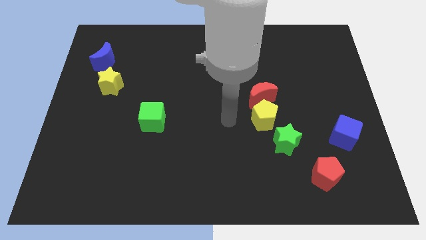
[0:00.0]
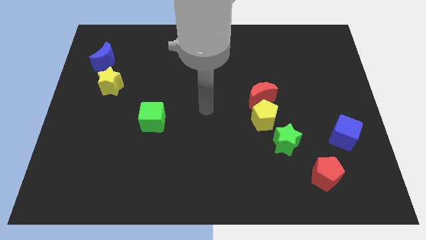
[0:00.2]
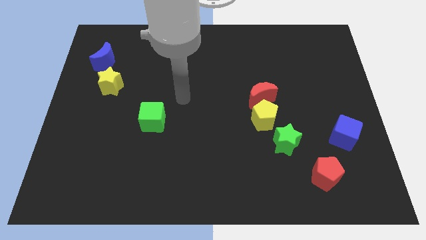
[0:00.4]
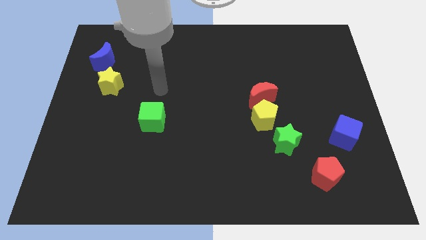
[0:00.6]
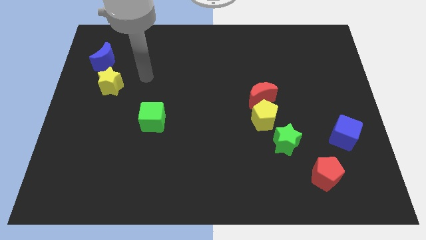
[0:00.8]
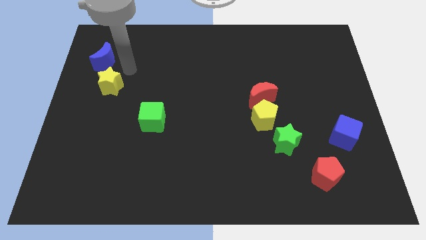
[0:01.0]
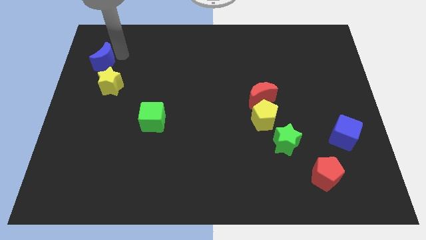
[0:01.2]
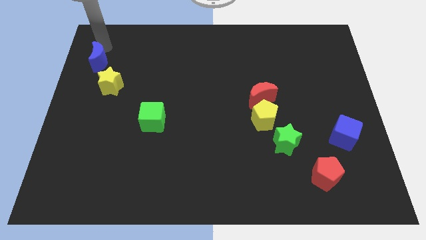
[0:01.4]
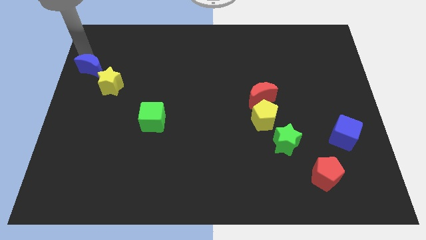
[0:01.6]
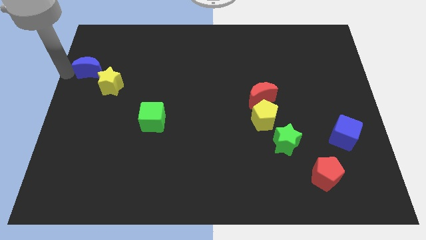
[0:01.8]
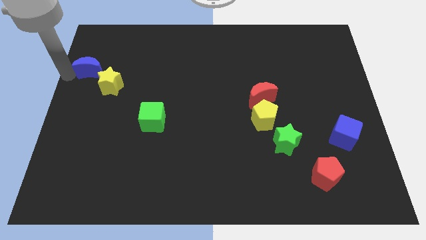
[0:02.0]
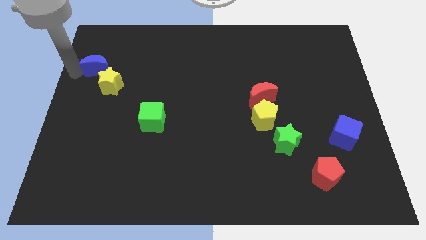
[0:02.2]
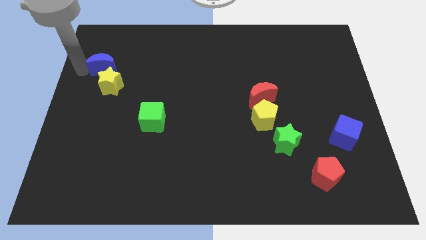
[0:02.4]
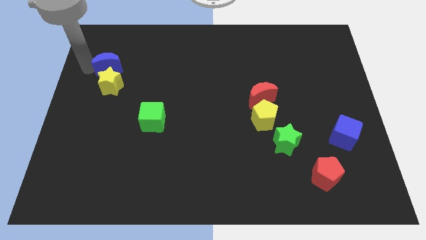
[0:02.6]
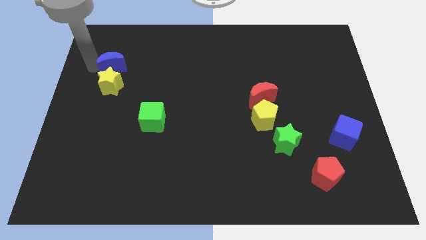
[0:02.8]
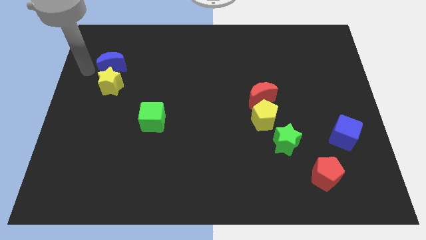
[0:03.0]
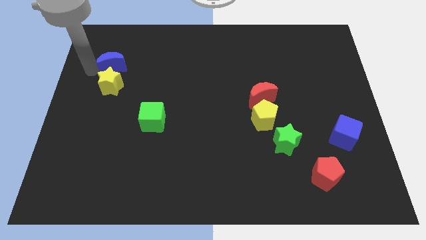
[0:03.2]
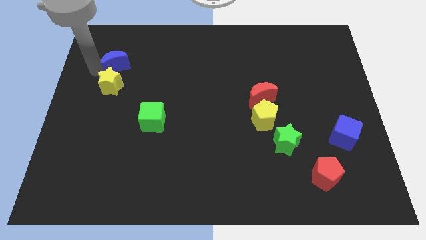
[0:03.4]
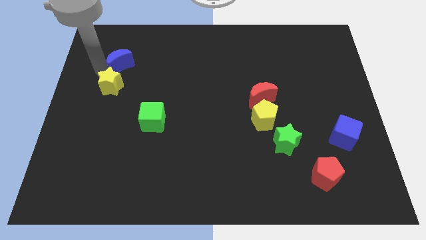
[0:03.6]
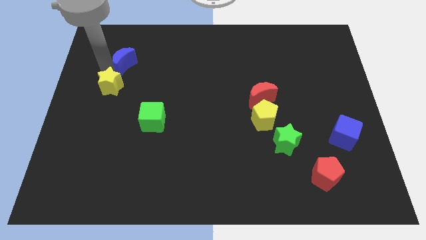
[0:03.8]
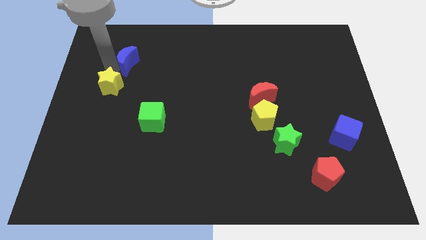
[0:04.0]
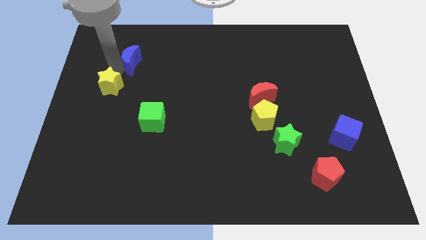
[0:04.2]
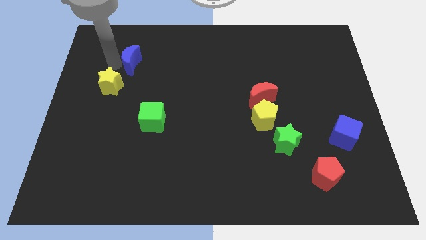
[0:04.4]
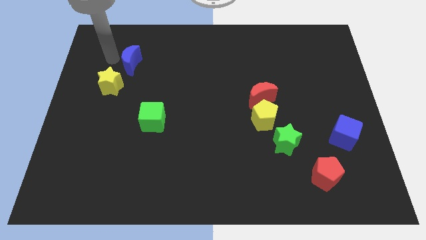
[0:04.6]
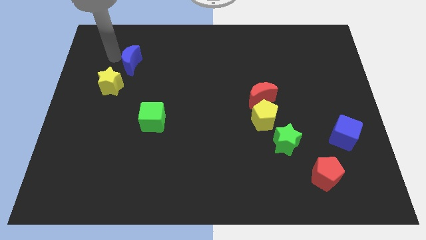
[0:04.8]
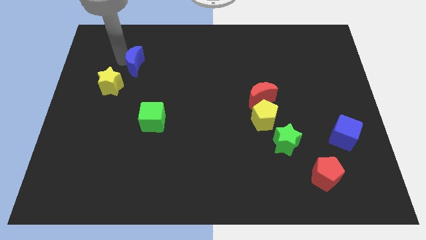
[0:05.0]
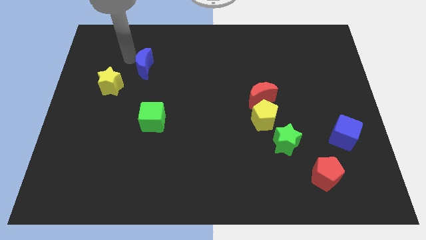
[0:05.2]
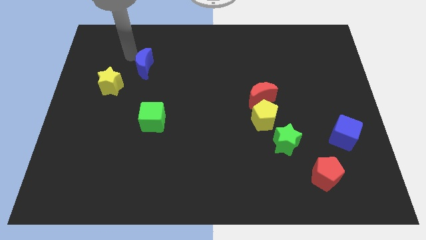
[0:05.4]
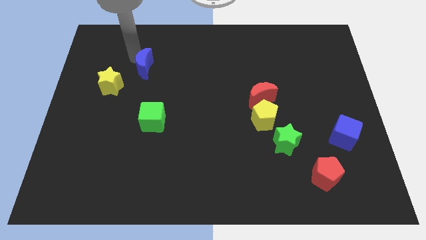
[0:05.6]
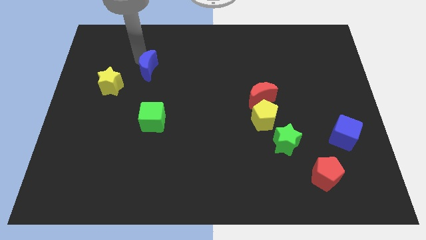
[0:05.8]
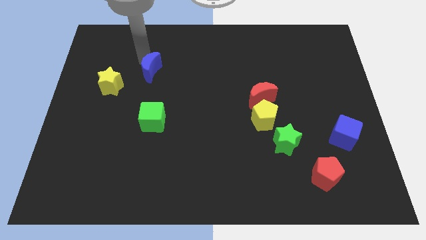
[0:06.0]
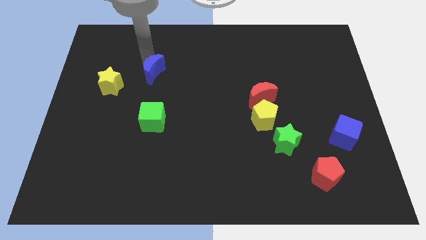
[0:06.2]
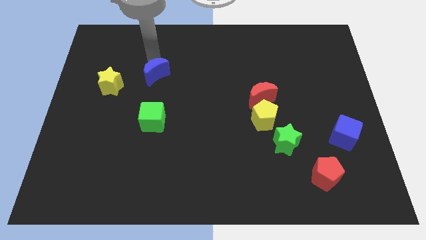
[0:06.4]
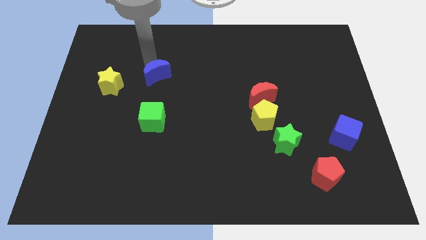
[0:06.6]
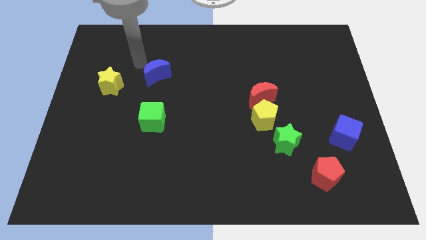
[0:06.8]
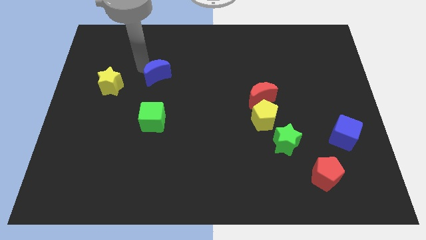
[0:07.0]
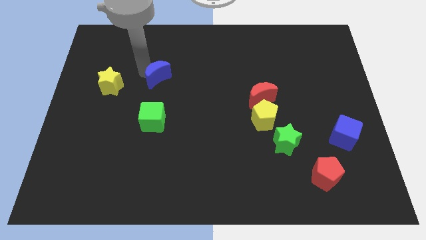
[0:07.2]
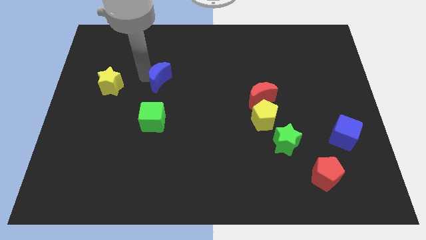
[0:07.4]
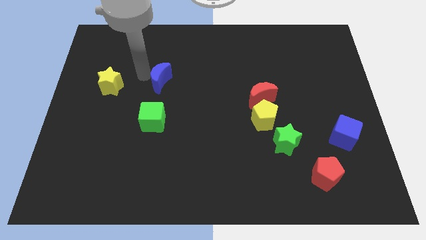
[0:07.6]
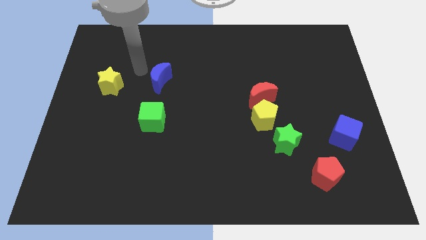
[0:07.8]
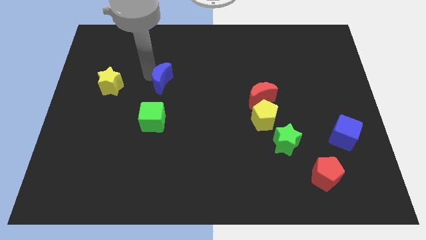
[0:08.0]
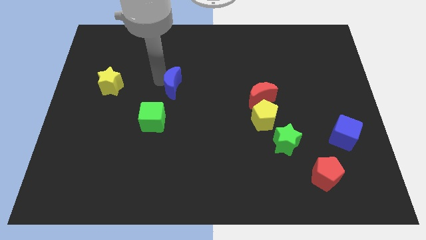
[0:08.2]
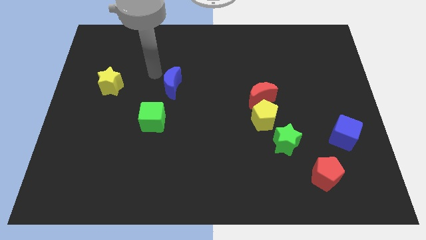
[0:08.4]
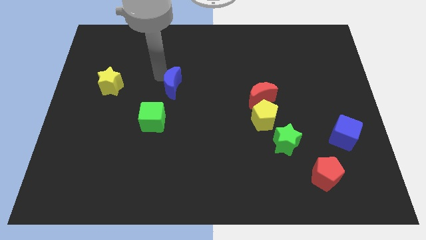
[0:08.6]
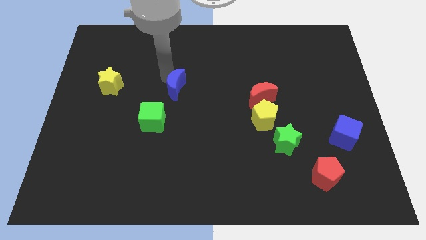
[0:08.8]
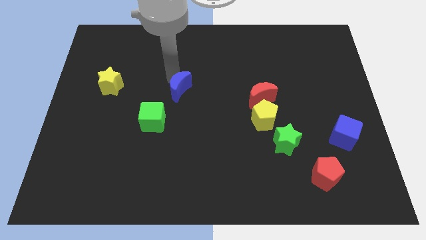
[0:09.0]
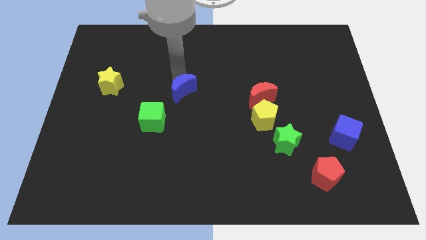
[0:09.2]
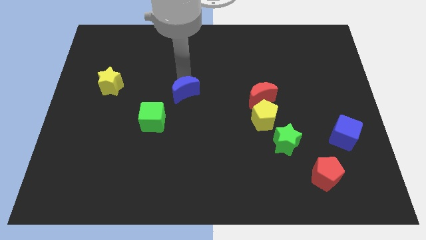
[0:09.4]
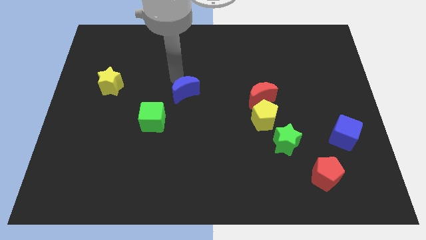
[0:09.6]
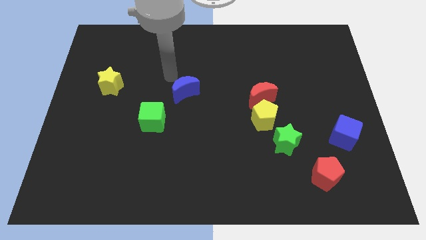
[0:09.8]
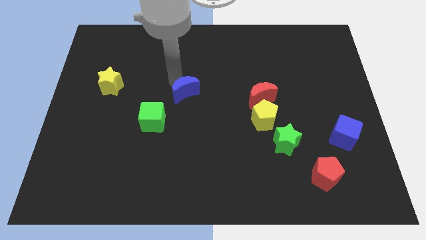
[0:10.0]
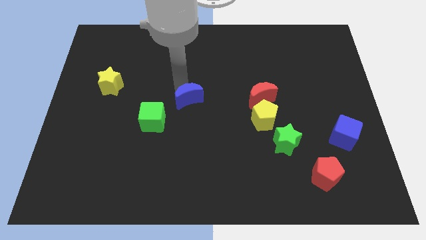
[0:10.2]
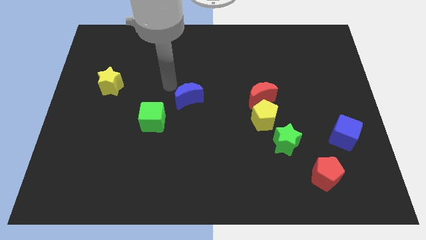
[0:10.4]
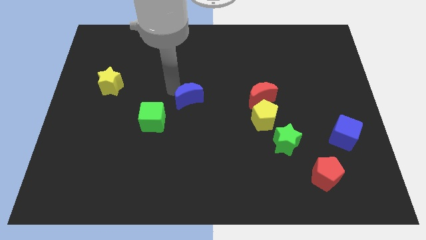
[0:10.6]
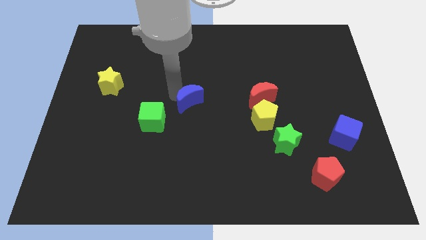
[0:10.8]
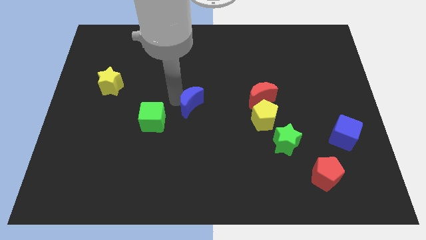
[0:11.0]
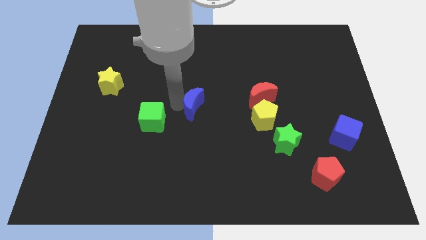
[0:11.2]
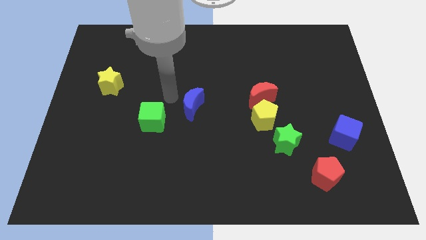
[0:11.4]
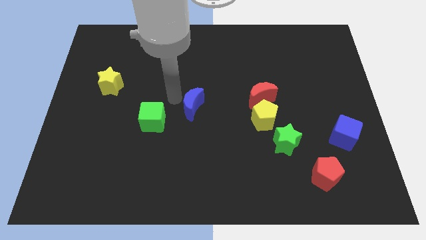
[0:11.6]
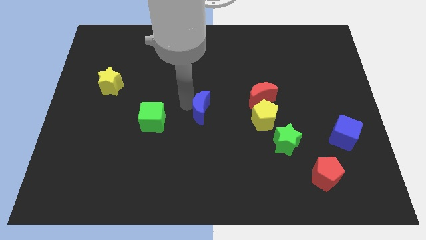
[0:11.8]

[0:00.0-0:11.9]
push the blue moon just left of the yellow pentagon

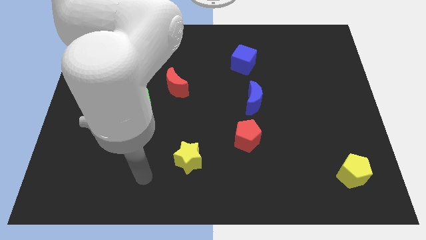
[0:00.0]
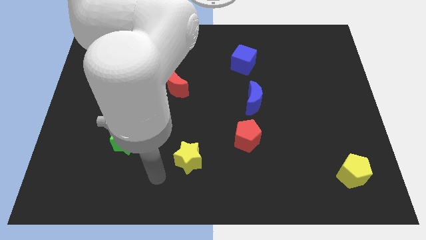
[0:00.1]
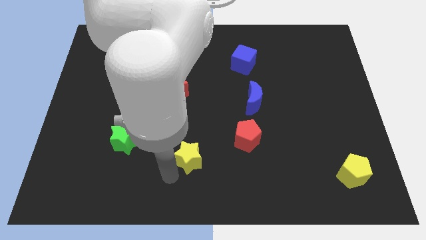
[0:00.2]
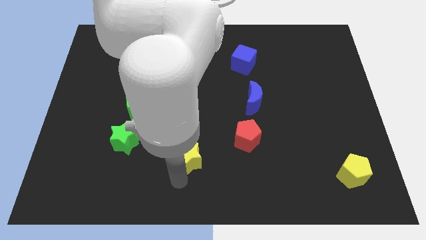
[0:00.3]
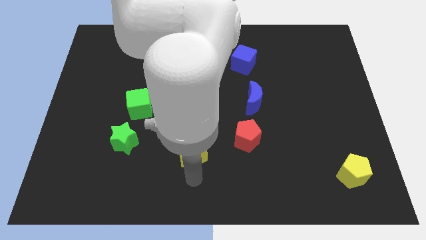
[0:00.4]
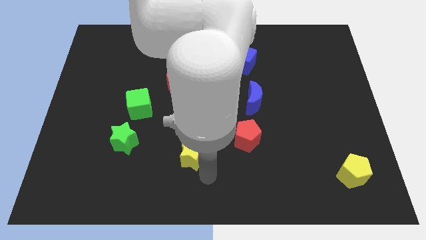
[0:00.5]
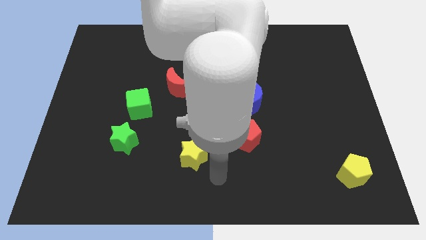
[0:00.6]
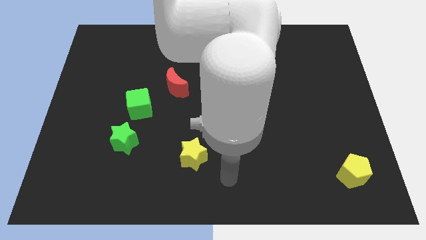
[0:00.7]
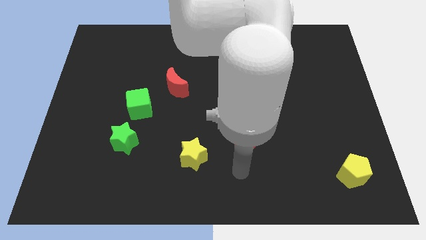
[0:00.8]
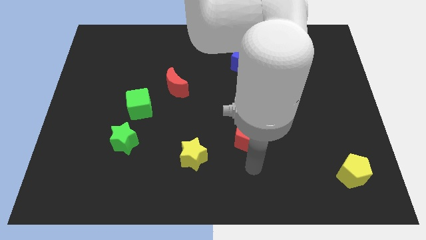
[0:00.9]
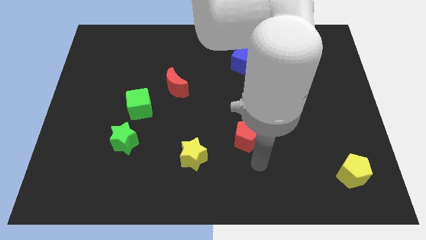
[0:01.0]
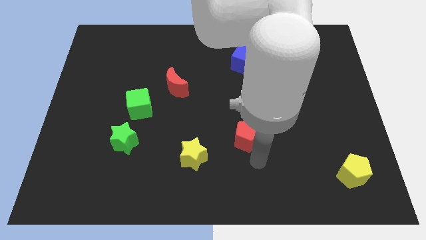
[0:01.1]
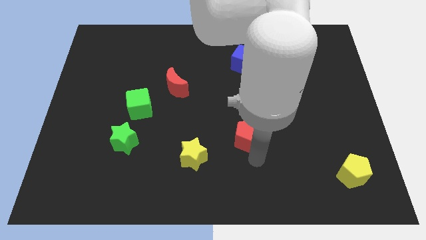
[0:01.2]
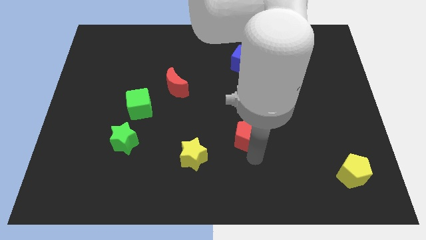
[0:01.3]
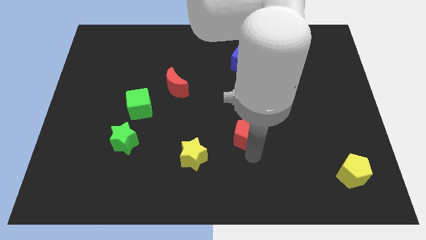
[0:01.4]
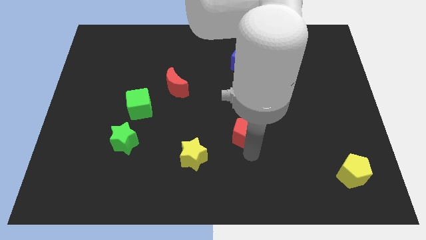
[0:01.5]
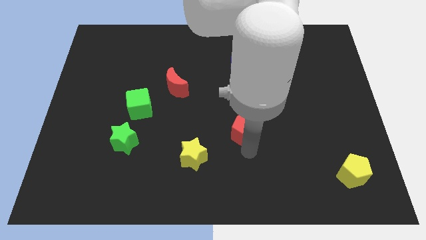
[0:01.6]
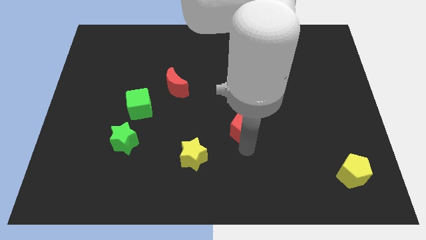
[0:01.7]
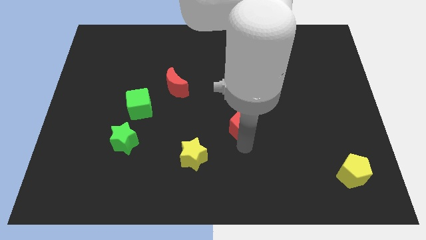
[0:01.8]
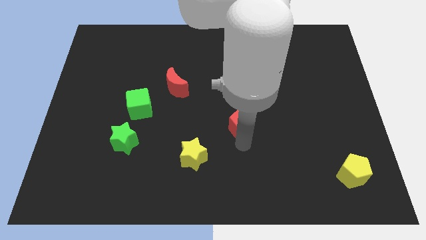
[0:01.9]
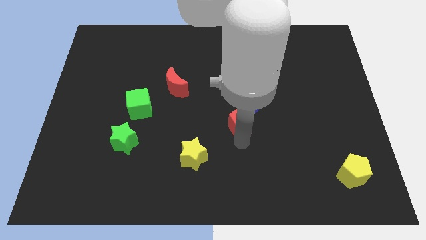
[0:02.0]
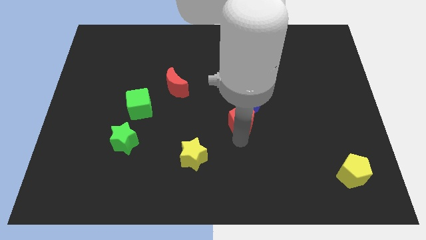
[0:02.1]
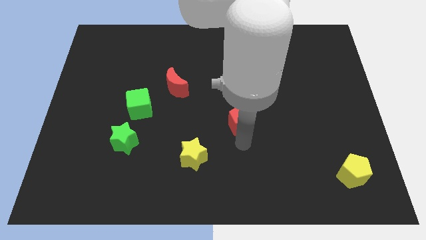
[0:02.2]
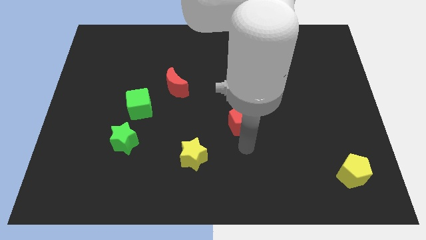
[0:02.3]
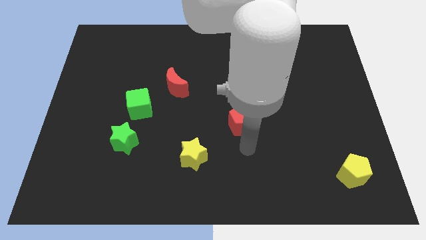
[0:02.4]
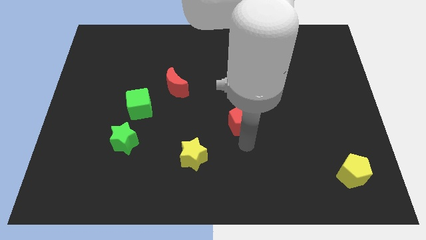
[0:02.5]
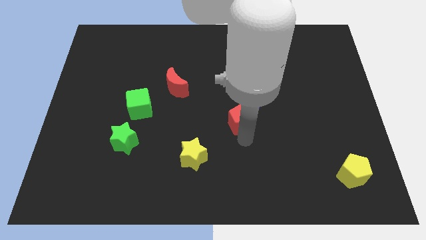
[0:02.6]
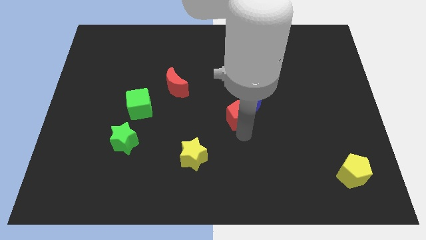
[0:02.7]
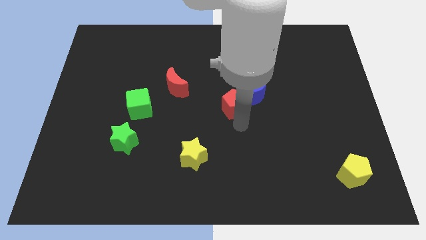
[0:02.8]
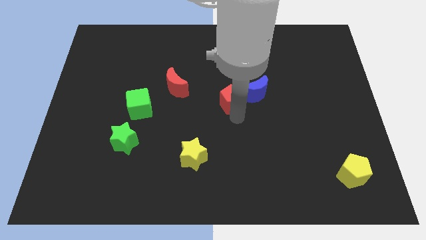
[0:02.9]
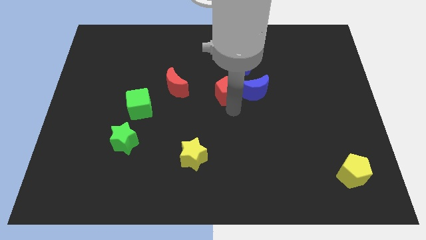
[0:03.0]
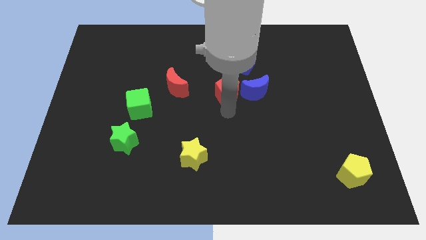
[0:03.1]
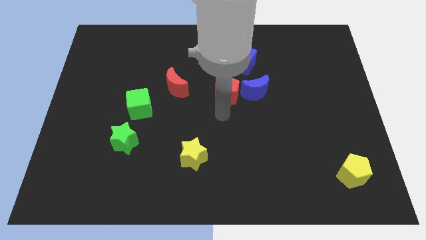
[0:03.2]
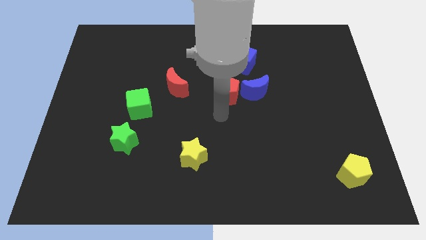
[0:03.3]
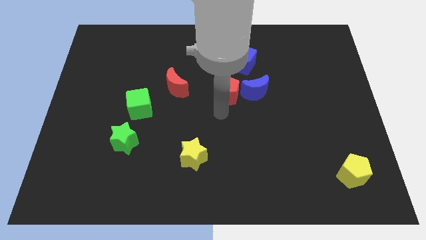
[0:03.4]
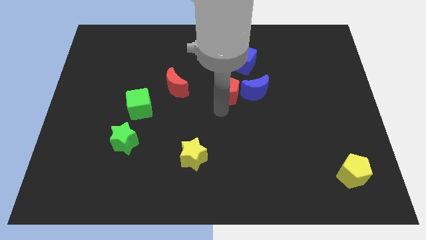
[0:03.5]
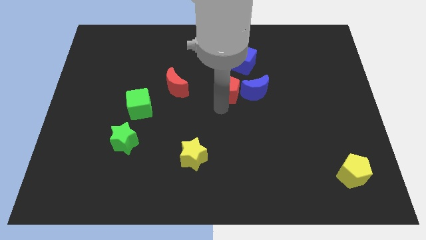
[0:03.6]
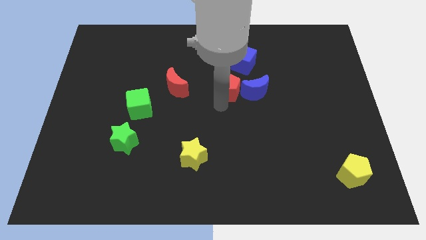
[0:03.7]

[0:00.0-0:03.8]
slide the red pentagon to the top left of the blue moon
